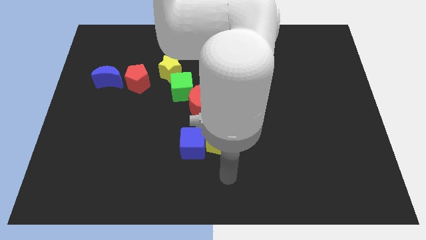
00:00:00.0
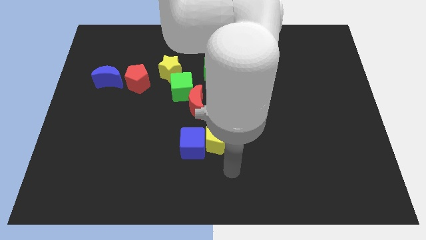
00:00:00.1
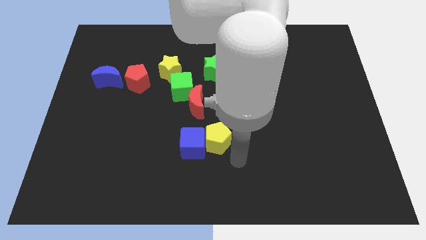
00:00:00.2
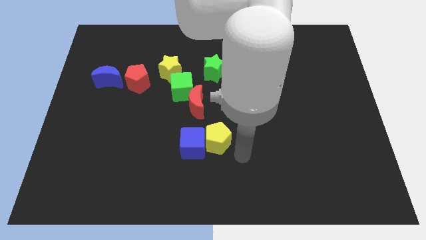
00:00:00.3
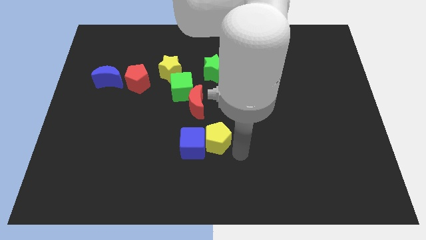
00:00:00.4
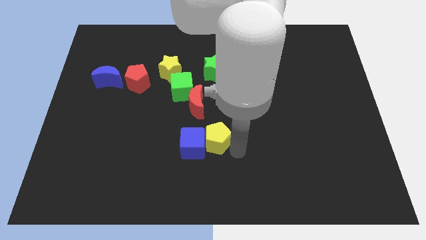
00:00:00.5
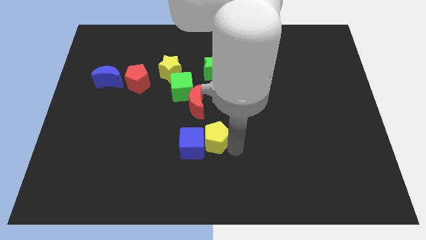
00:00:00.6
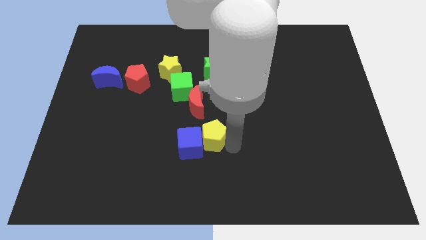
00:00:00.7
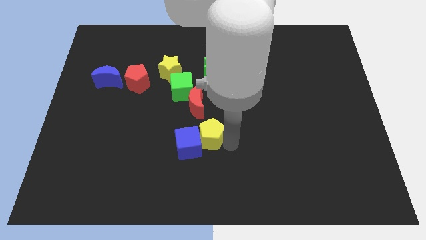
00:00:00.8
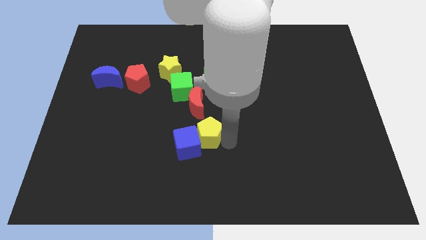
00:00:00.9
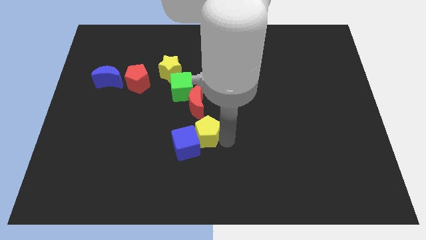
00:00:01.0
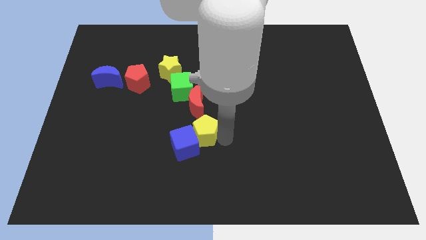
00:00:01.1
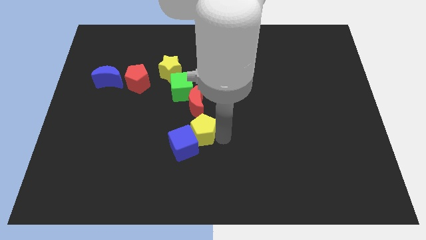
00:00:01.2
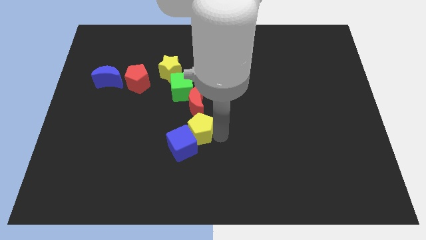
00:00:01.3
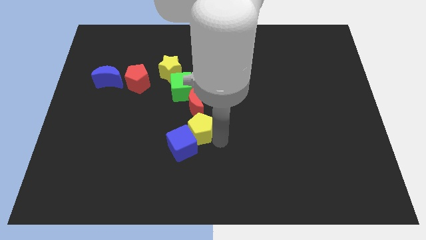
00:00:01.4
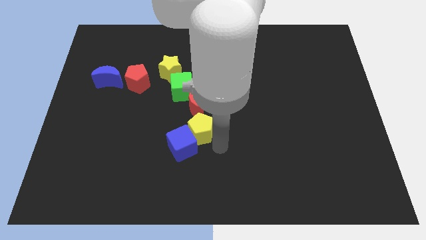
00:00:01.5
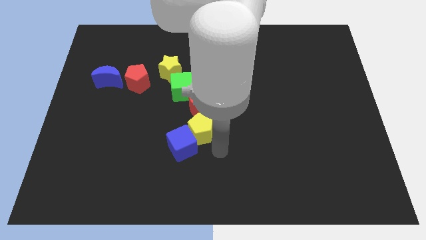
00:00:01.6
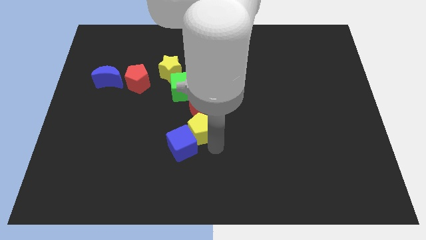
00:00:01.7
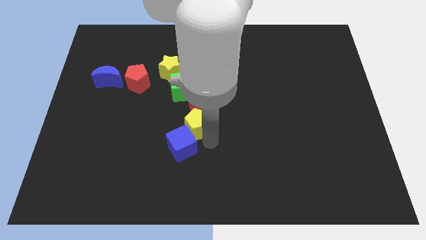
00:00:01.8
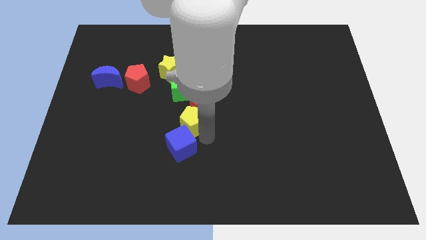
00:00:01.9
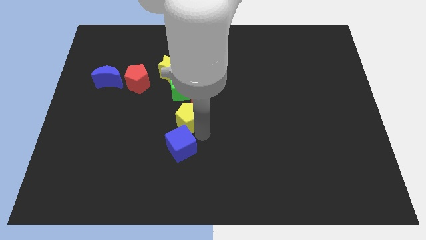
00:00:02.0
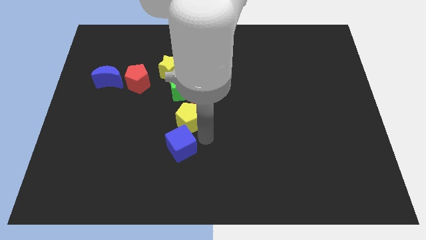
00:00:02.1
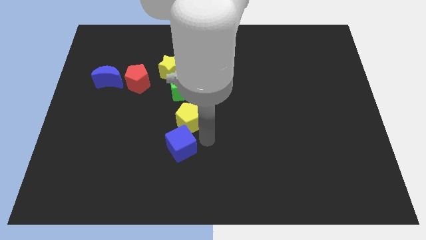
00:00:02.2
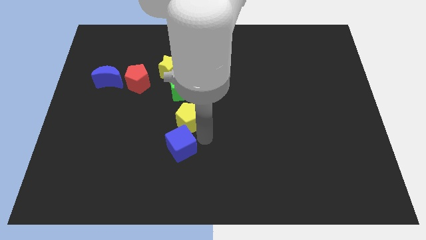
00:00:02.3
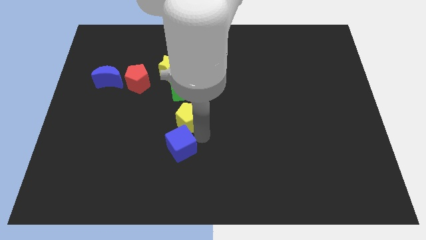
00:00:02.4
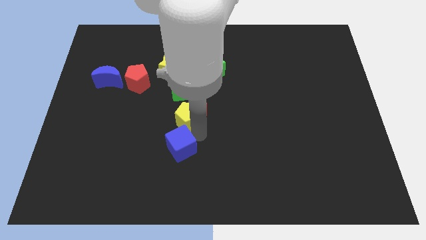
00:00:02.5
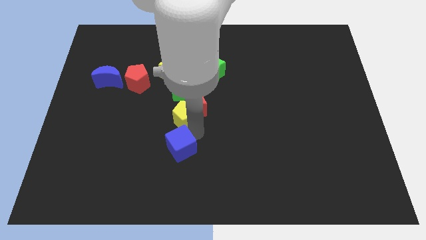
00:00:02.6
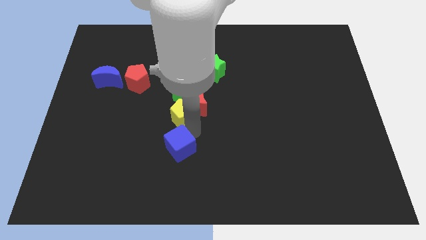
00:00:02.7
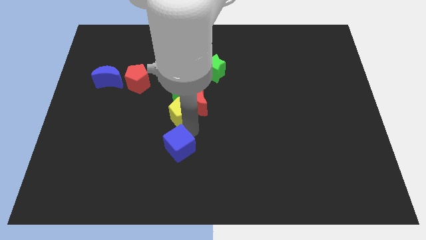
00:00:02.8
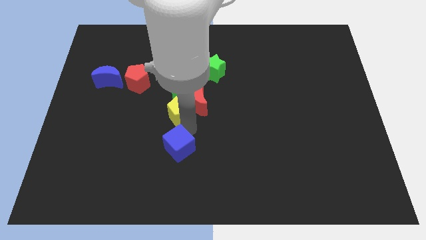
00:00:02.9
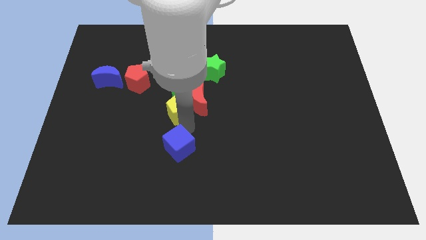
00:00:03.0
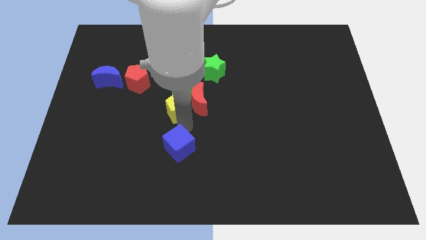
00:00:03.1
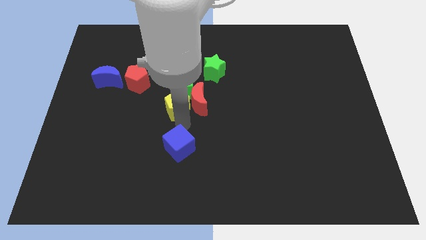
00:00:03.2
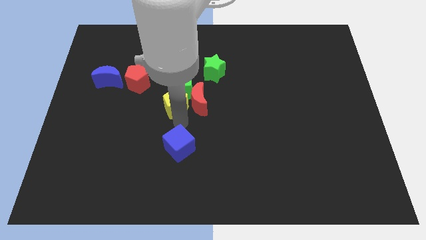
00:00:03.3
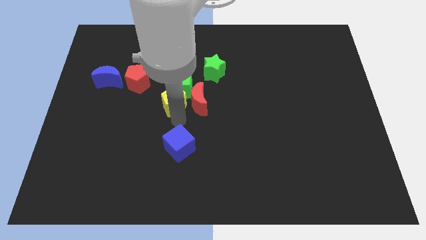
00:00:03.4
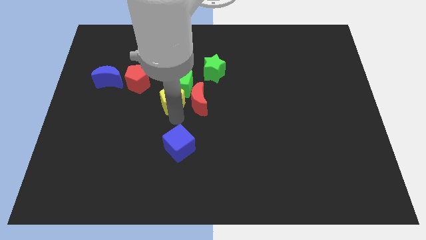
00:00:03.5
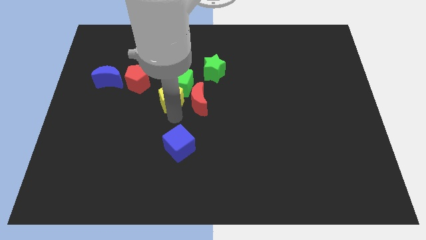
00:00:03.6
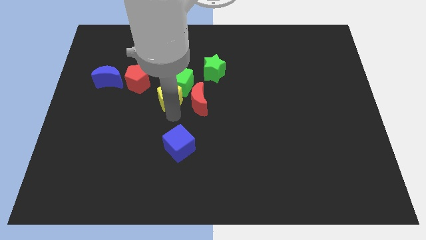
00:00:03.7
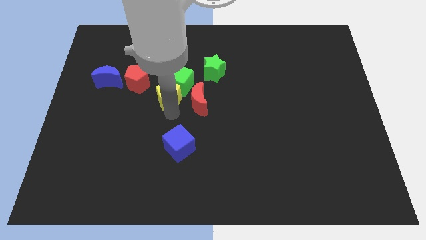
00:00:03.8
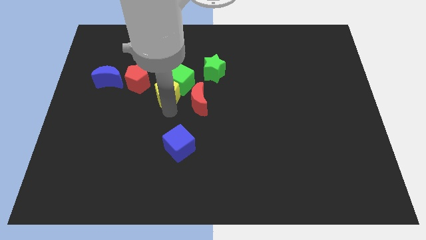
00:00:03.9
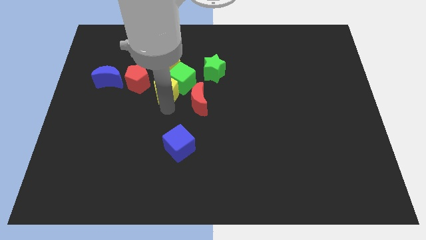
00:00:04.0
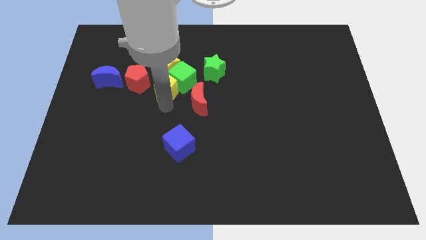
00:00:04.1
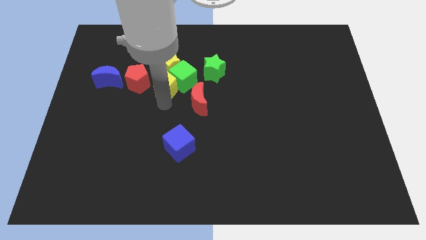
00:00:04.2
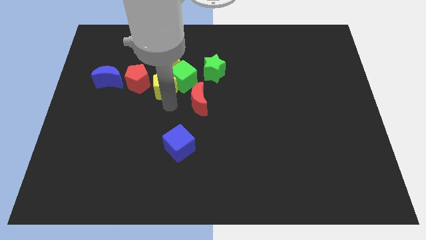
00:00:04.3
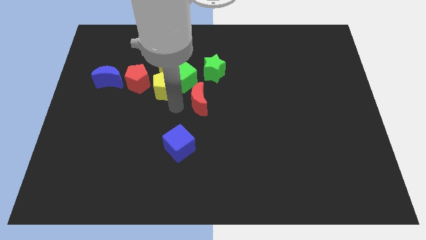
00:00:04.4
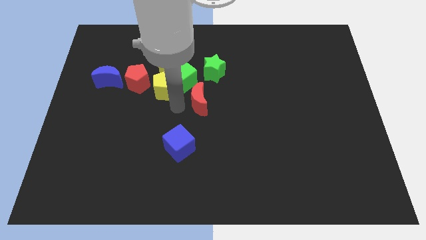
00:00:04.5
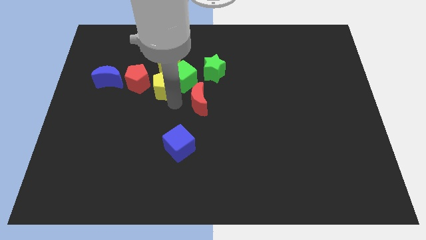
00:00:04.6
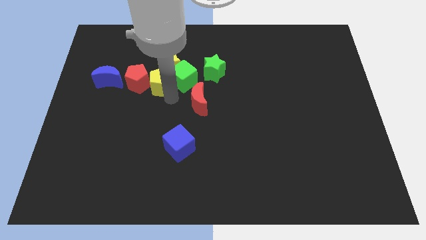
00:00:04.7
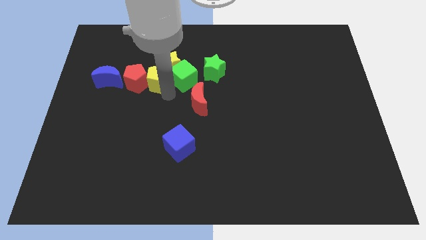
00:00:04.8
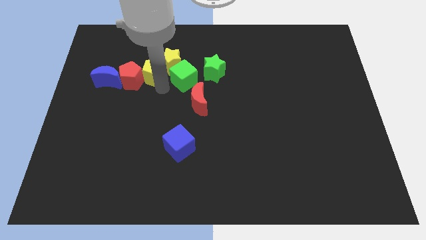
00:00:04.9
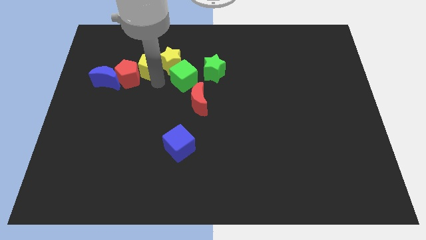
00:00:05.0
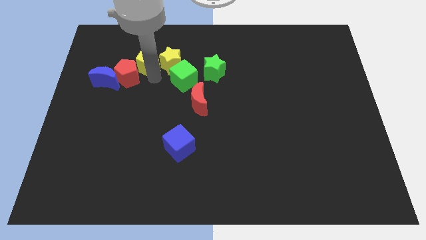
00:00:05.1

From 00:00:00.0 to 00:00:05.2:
push the yellow pentagon to the top left side of the yellow star

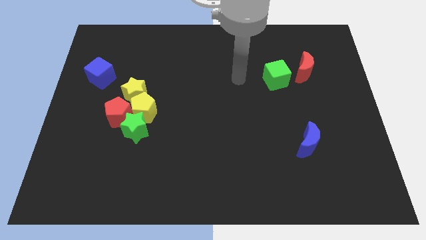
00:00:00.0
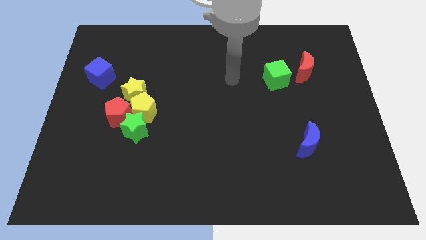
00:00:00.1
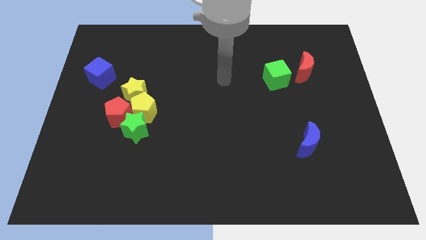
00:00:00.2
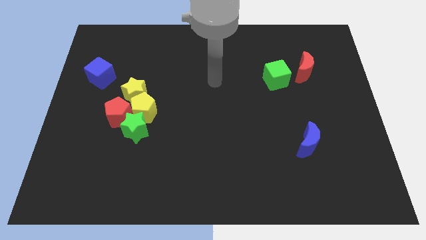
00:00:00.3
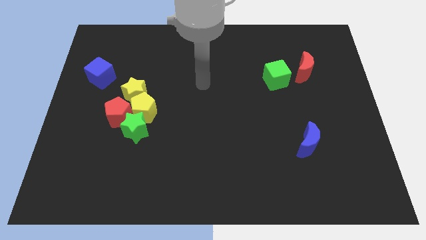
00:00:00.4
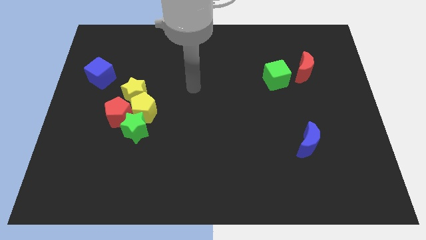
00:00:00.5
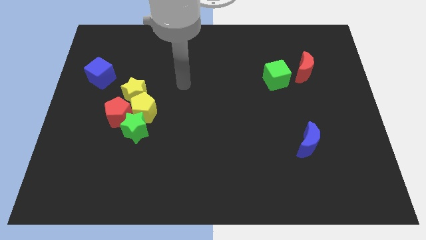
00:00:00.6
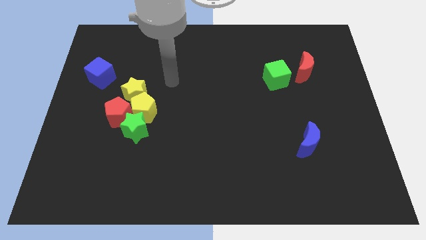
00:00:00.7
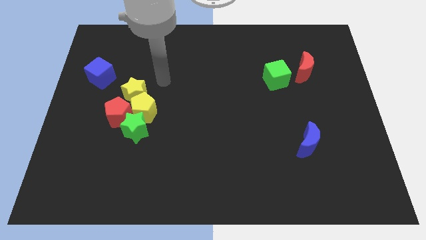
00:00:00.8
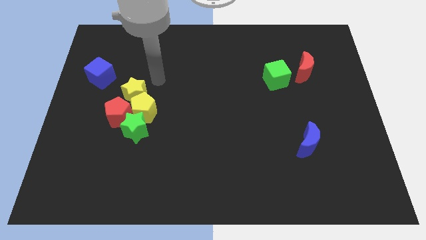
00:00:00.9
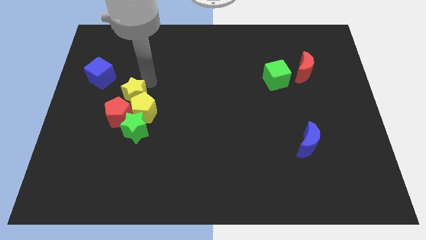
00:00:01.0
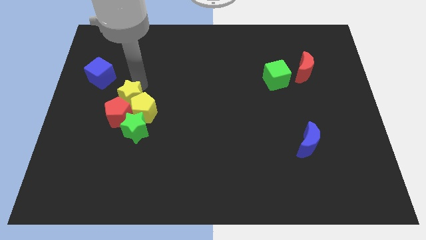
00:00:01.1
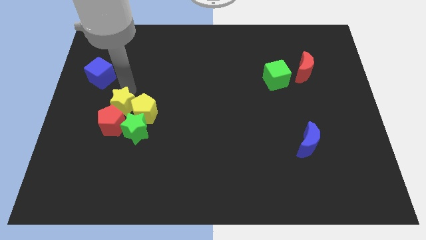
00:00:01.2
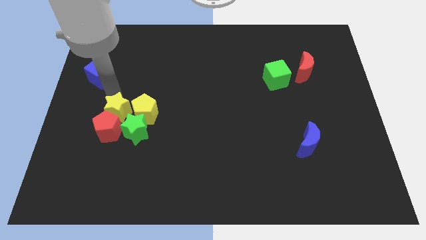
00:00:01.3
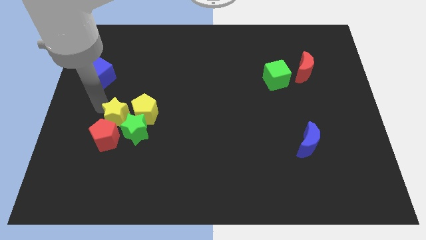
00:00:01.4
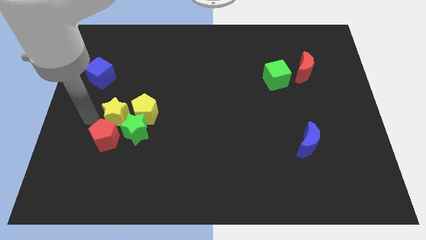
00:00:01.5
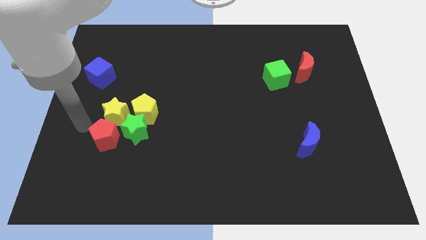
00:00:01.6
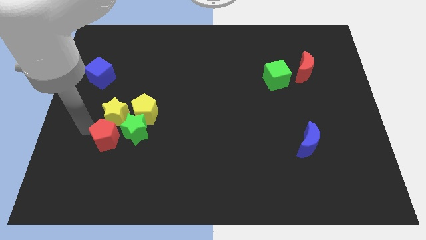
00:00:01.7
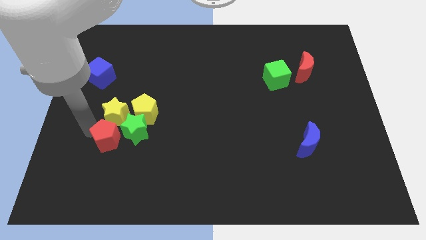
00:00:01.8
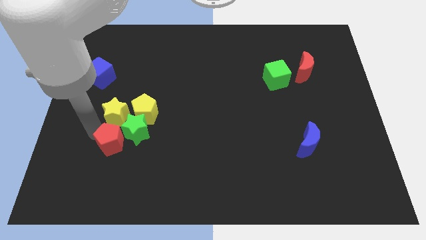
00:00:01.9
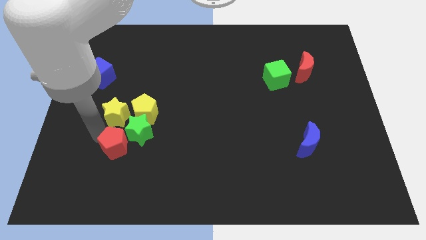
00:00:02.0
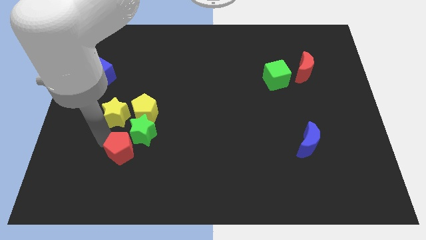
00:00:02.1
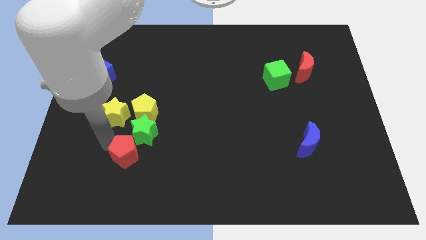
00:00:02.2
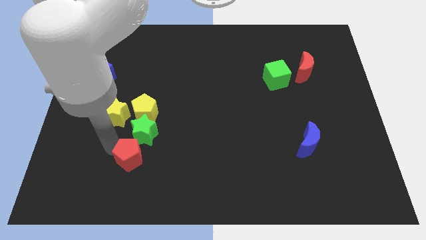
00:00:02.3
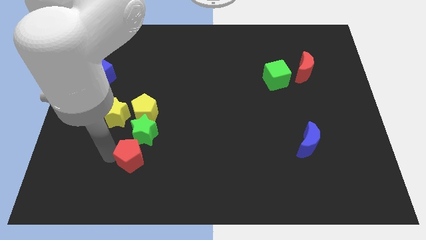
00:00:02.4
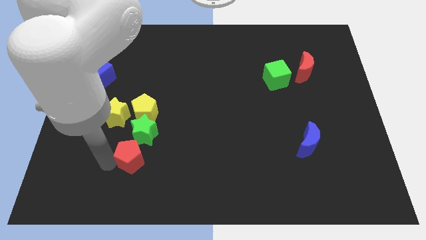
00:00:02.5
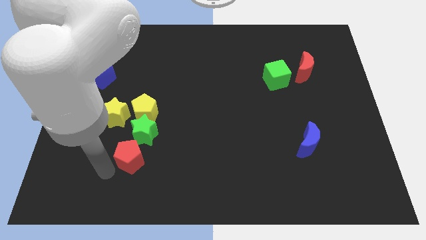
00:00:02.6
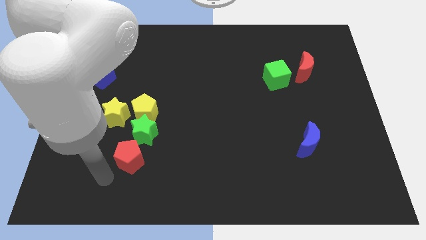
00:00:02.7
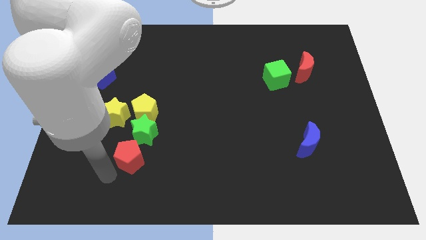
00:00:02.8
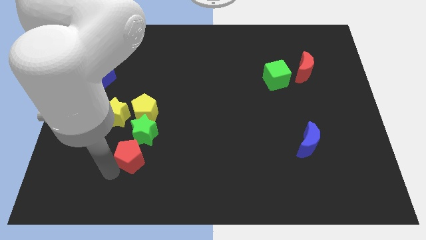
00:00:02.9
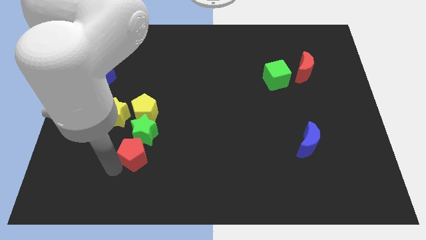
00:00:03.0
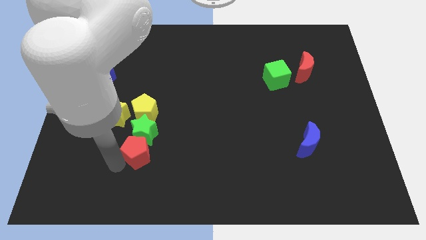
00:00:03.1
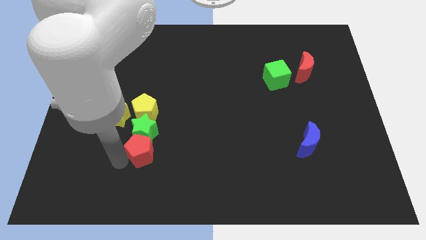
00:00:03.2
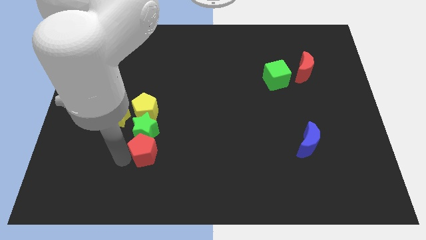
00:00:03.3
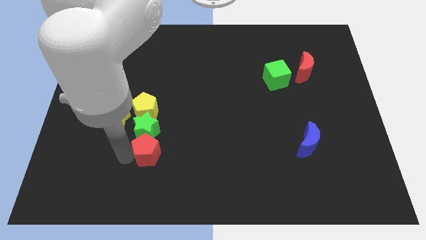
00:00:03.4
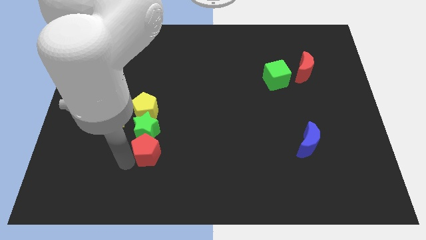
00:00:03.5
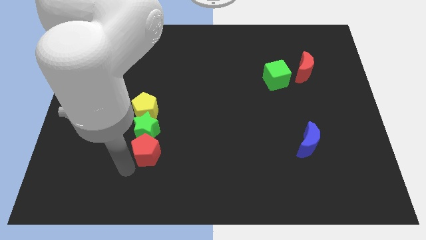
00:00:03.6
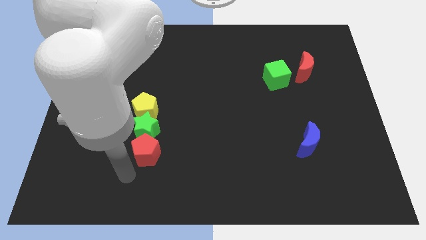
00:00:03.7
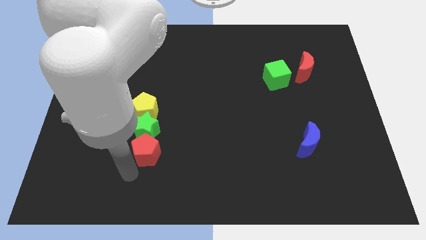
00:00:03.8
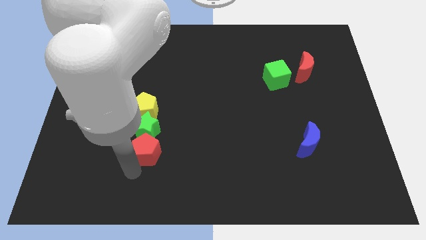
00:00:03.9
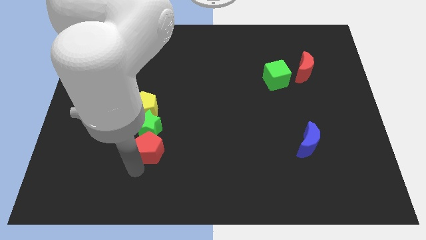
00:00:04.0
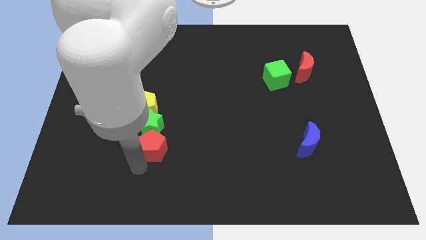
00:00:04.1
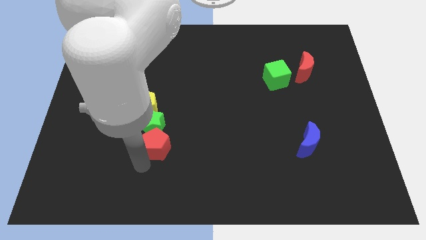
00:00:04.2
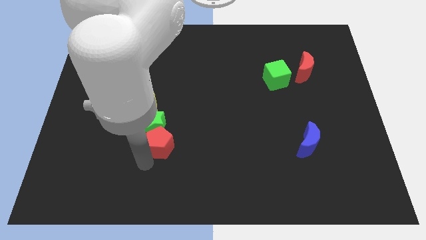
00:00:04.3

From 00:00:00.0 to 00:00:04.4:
move the red pentagon to the bottom right of the yellow pentagon
